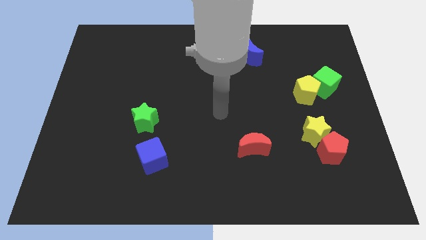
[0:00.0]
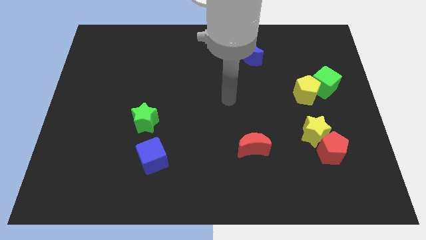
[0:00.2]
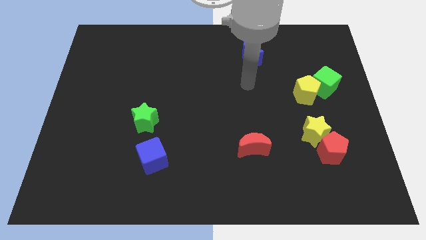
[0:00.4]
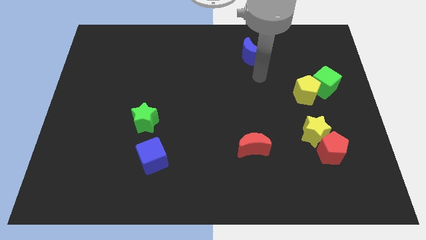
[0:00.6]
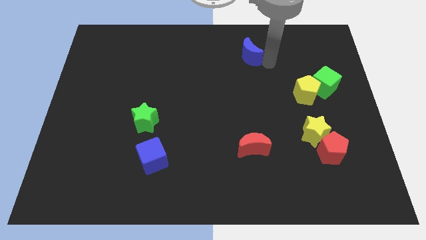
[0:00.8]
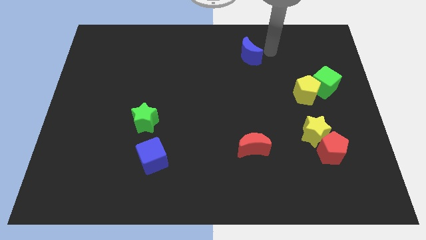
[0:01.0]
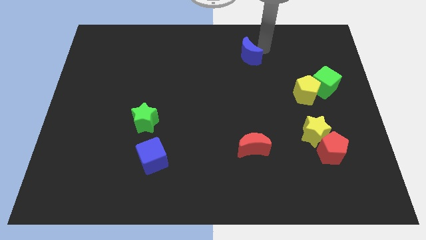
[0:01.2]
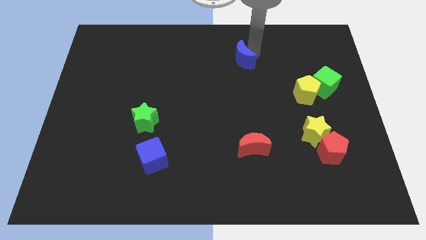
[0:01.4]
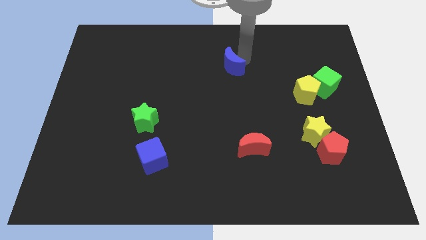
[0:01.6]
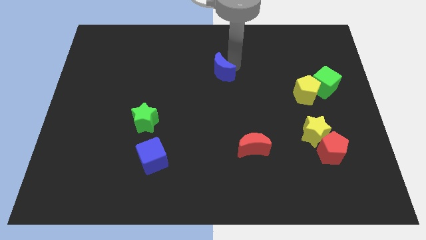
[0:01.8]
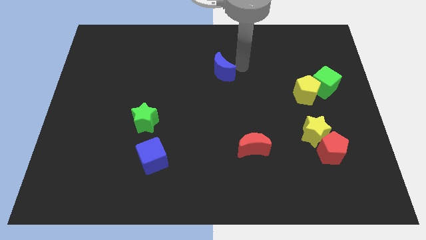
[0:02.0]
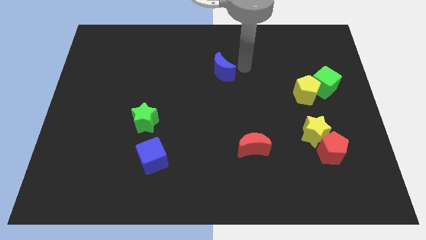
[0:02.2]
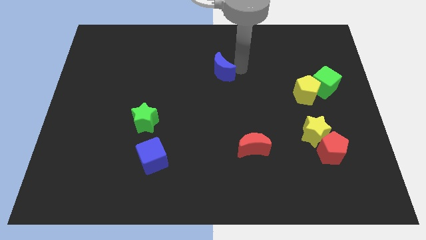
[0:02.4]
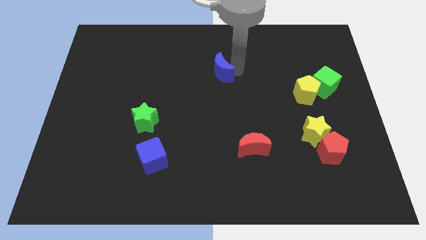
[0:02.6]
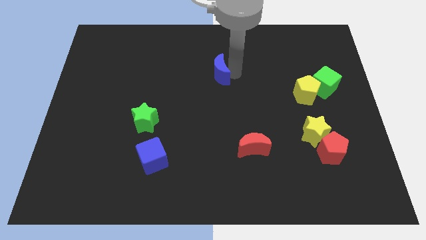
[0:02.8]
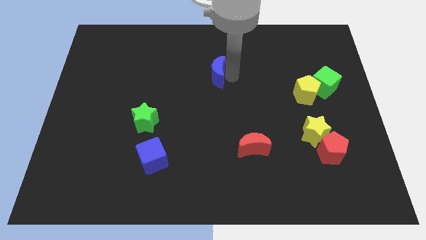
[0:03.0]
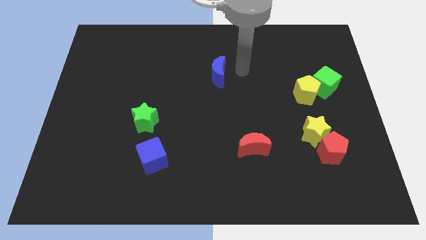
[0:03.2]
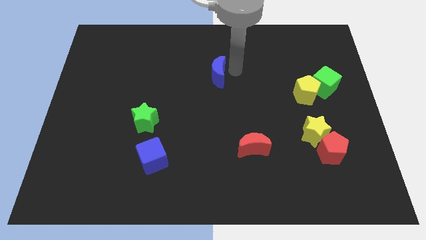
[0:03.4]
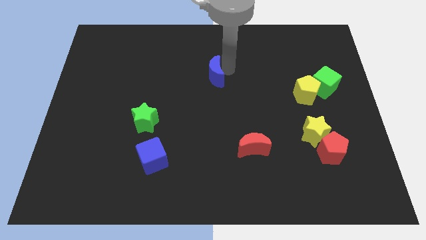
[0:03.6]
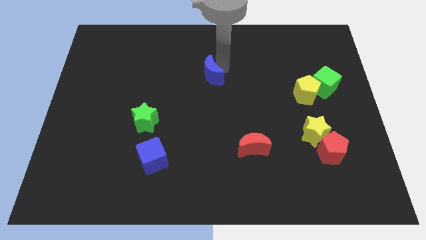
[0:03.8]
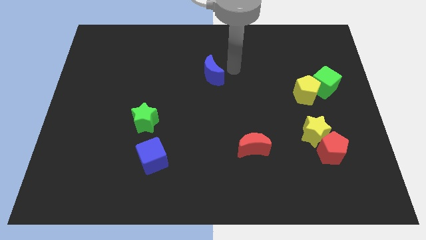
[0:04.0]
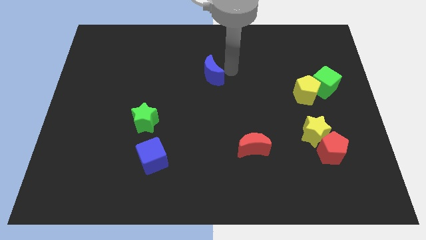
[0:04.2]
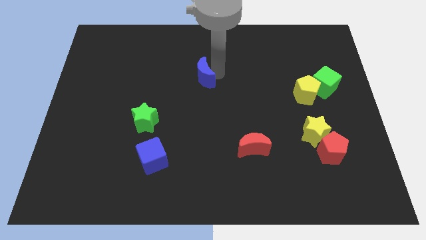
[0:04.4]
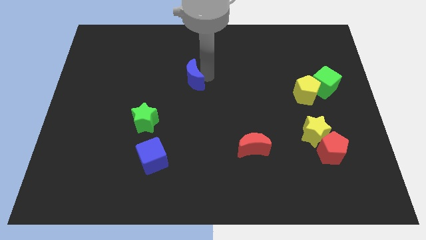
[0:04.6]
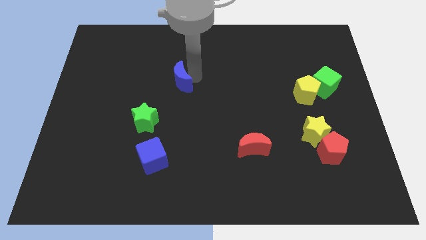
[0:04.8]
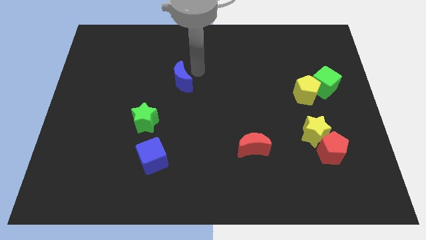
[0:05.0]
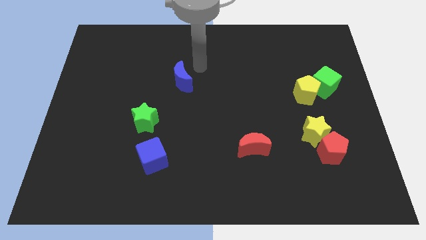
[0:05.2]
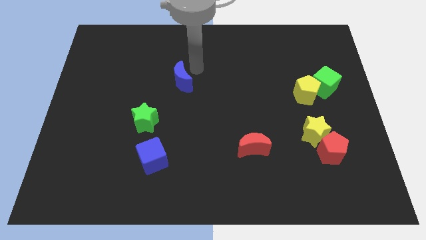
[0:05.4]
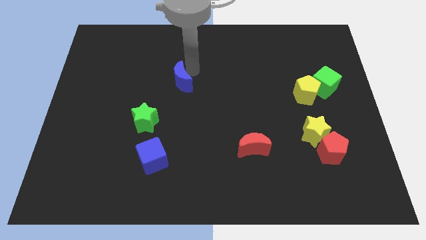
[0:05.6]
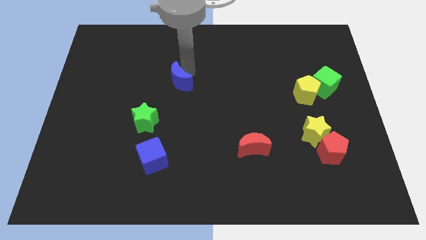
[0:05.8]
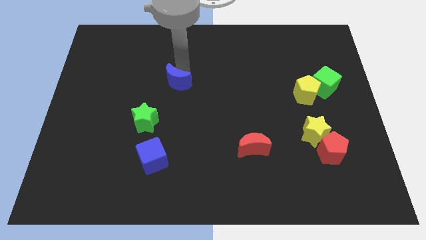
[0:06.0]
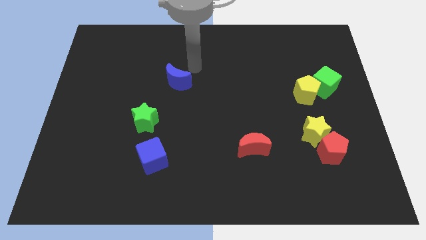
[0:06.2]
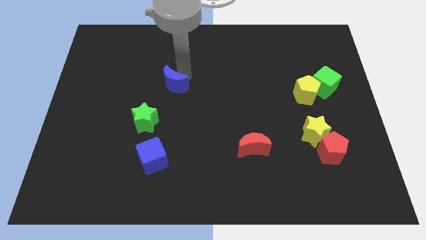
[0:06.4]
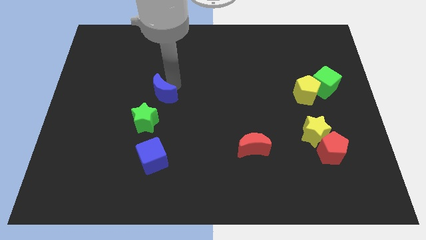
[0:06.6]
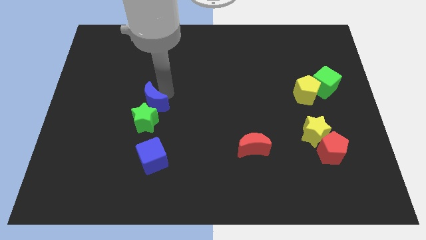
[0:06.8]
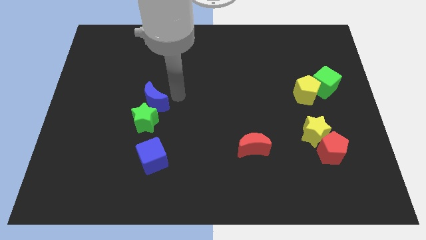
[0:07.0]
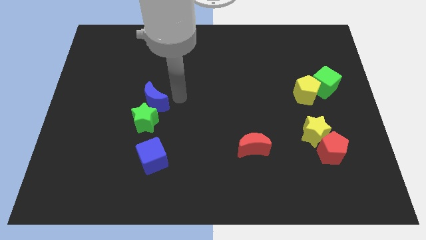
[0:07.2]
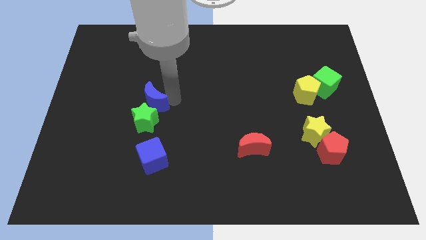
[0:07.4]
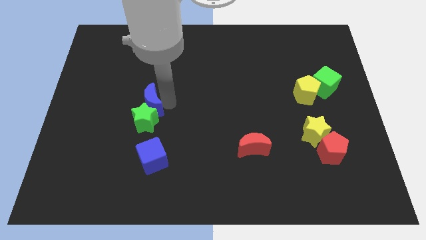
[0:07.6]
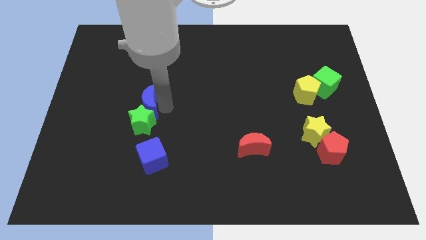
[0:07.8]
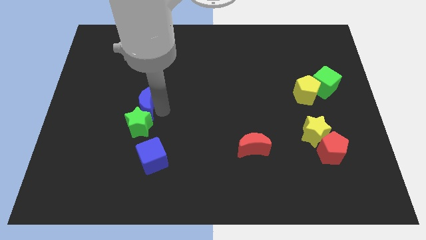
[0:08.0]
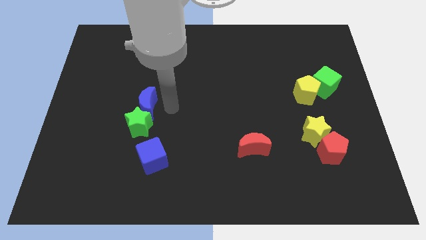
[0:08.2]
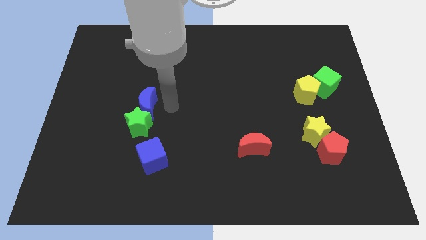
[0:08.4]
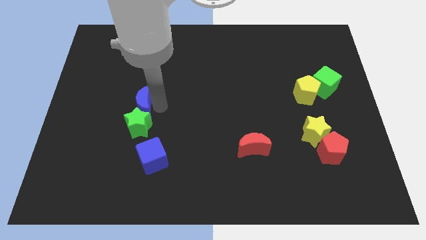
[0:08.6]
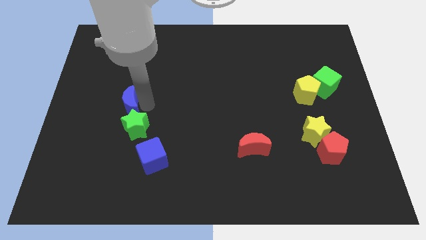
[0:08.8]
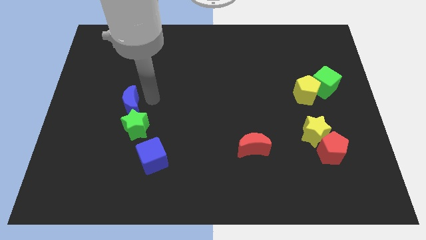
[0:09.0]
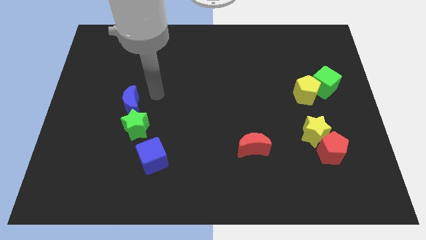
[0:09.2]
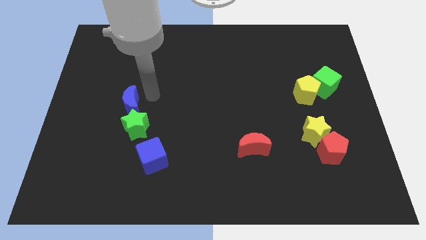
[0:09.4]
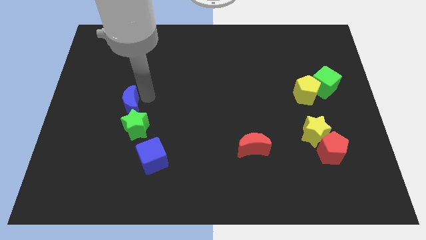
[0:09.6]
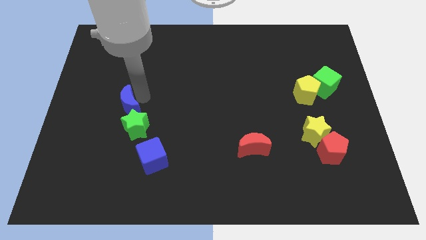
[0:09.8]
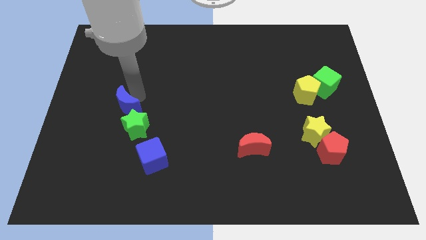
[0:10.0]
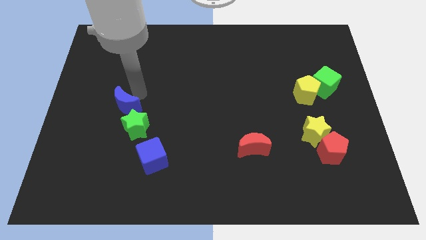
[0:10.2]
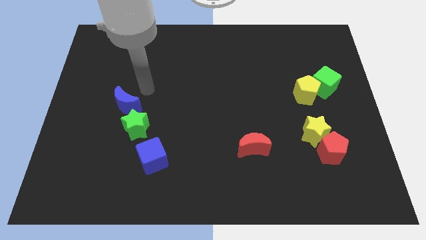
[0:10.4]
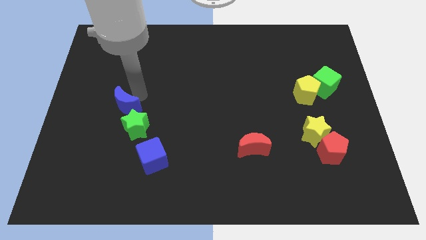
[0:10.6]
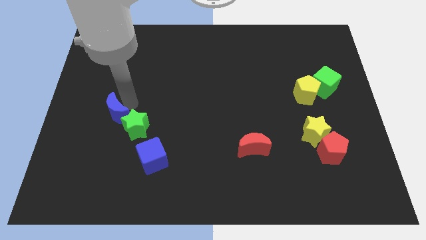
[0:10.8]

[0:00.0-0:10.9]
push the blue moon to the left of the green star

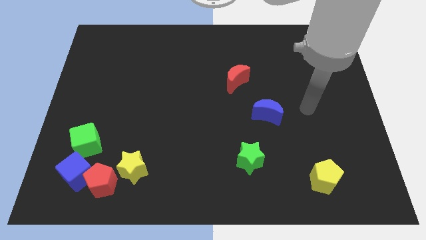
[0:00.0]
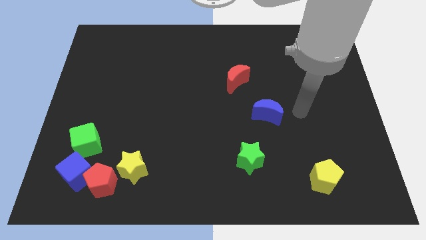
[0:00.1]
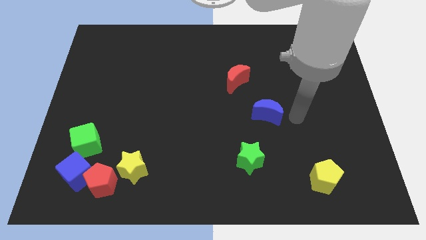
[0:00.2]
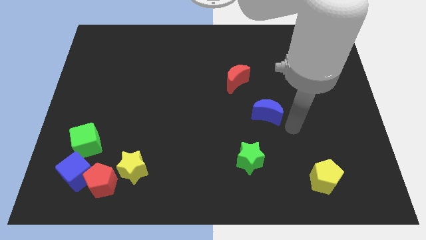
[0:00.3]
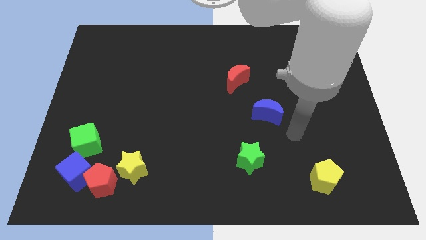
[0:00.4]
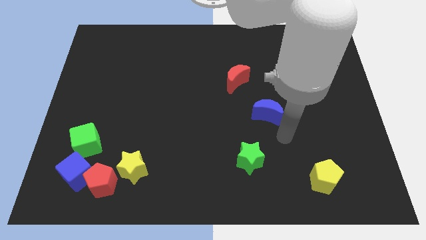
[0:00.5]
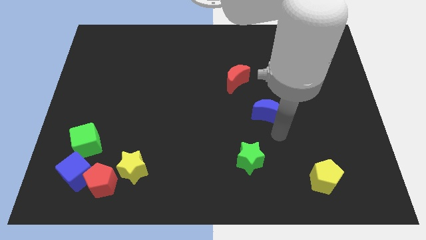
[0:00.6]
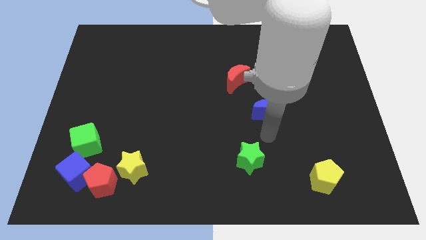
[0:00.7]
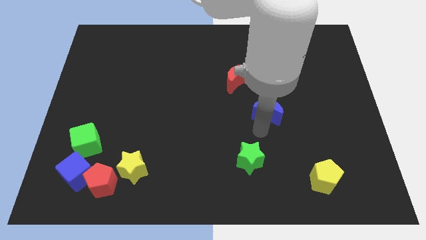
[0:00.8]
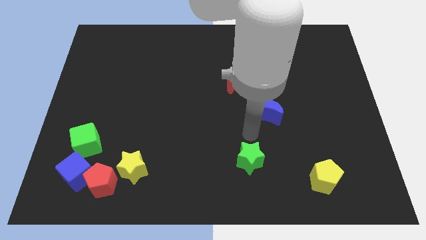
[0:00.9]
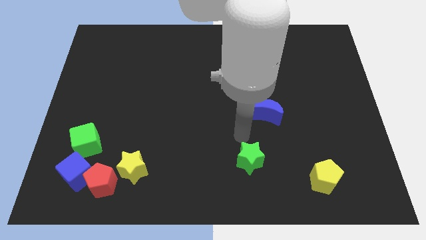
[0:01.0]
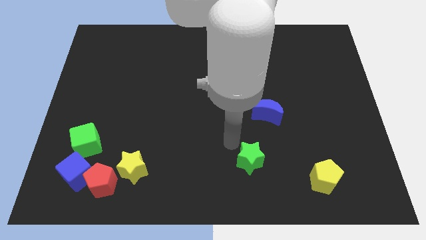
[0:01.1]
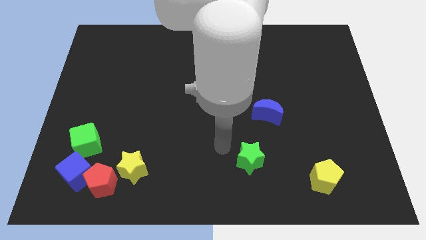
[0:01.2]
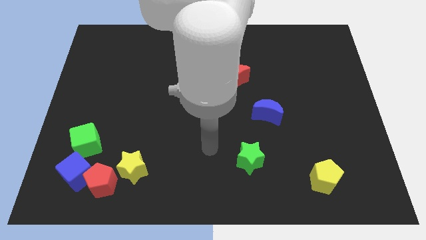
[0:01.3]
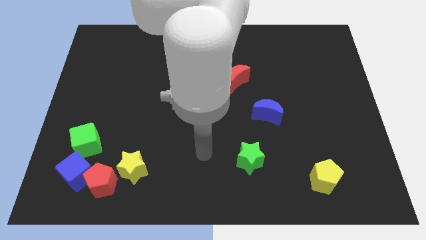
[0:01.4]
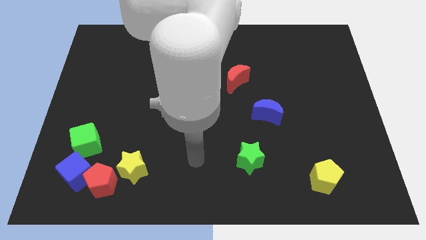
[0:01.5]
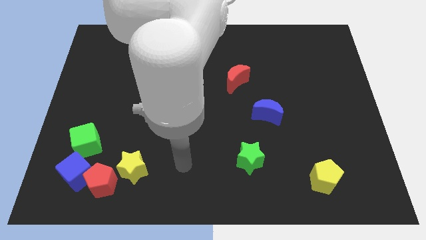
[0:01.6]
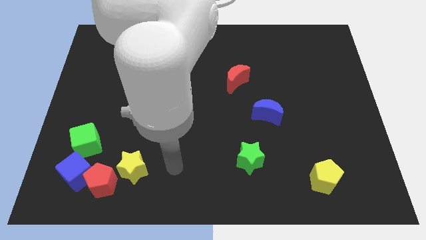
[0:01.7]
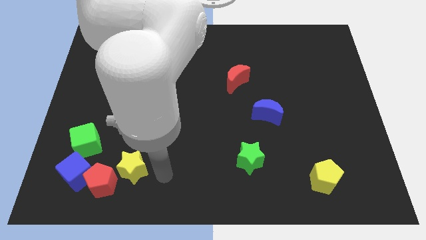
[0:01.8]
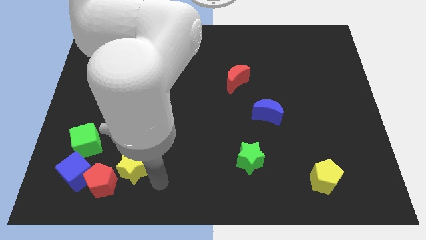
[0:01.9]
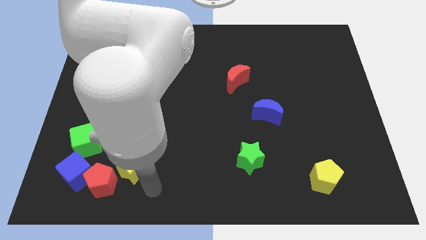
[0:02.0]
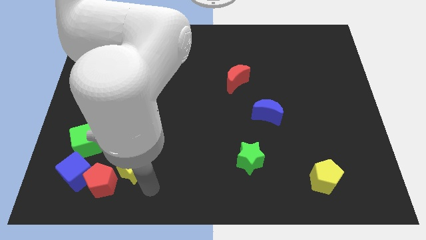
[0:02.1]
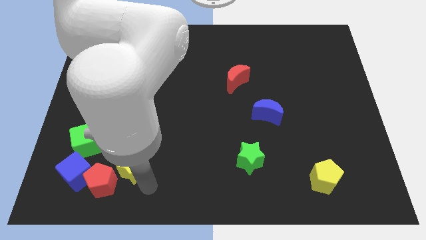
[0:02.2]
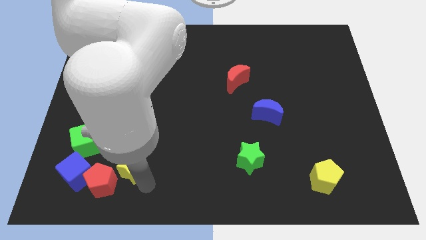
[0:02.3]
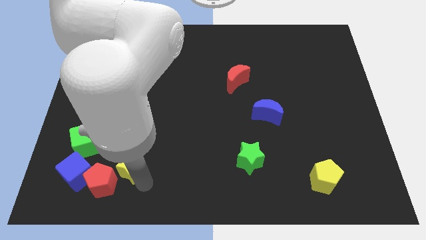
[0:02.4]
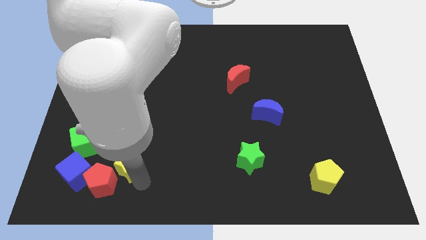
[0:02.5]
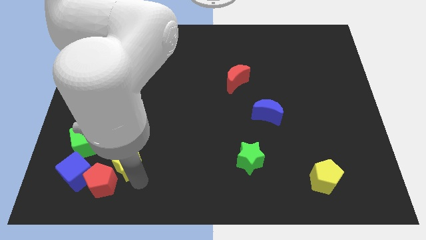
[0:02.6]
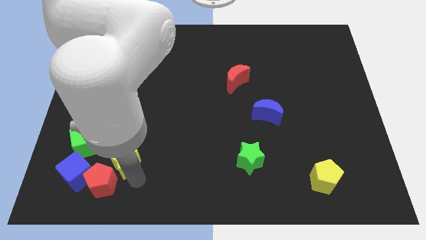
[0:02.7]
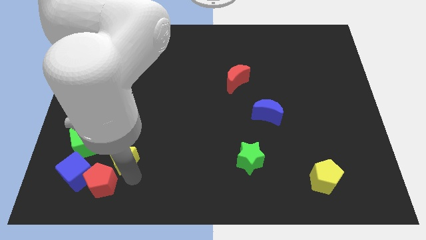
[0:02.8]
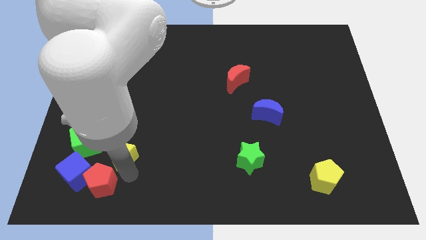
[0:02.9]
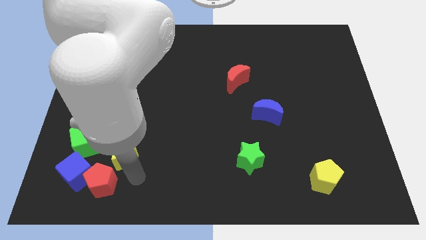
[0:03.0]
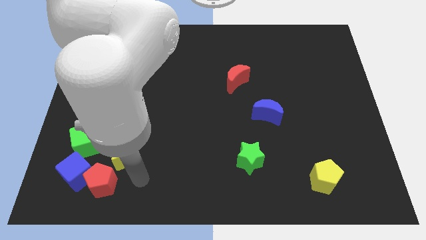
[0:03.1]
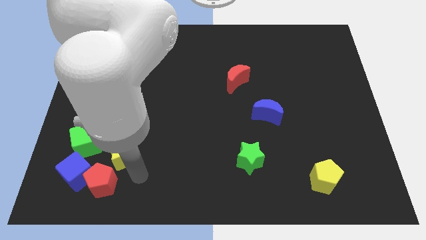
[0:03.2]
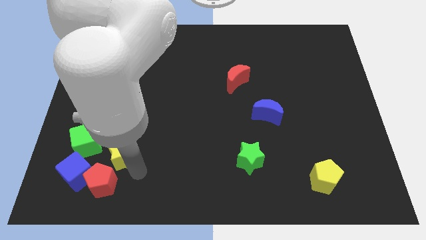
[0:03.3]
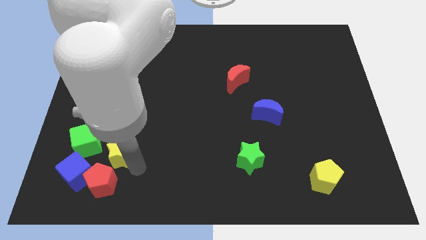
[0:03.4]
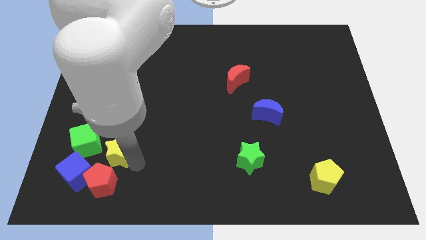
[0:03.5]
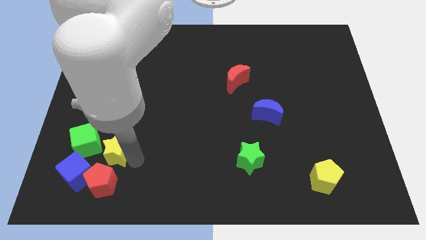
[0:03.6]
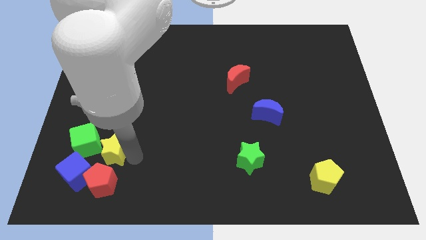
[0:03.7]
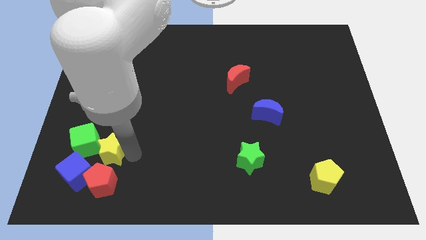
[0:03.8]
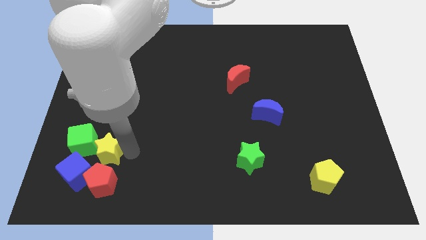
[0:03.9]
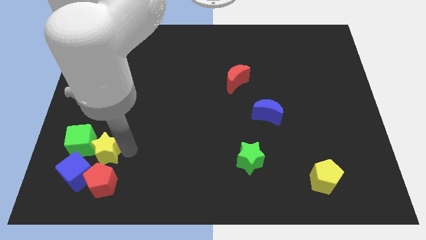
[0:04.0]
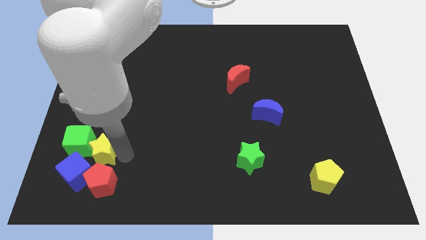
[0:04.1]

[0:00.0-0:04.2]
put the yellow star above the blue cube
